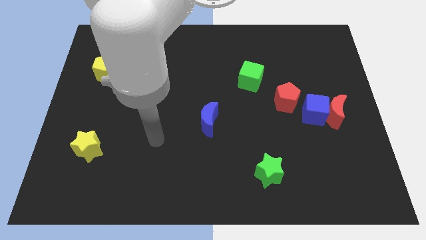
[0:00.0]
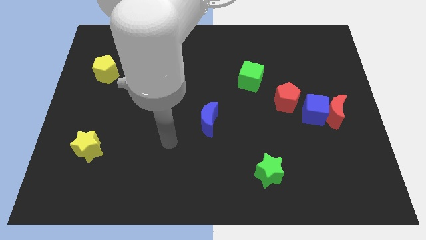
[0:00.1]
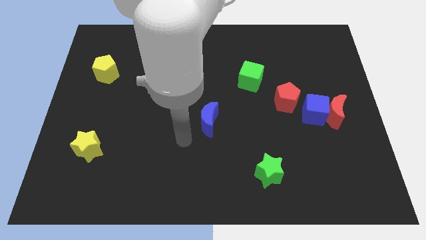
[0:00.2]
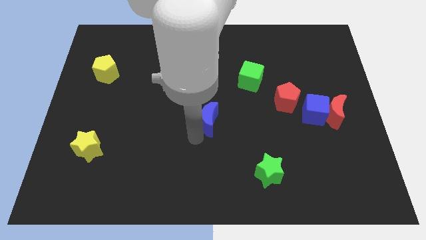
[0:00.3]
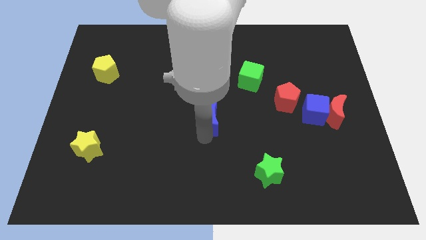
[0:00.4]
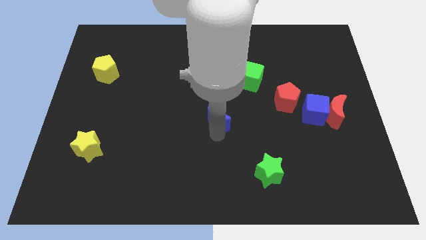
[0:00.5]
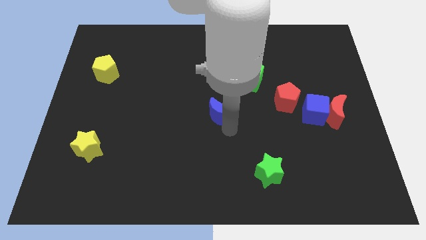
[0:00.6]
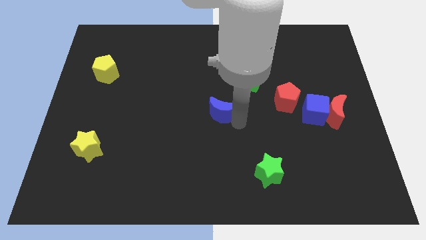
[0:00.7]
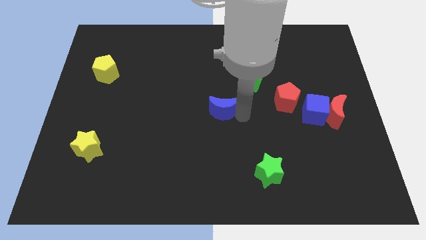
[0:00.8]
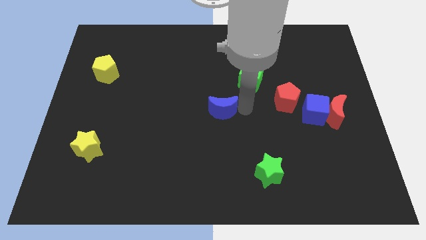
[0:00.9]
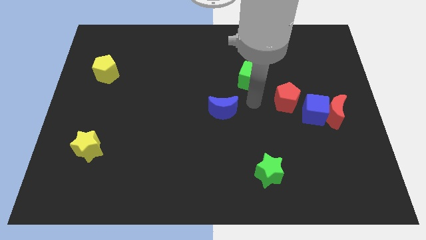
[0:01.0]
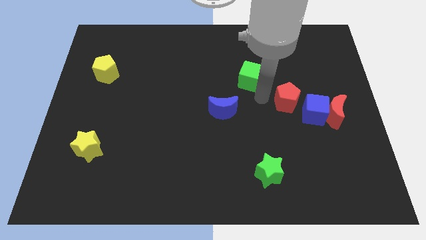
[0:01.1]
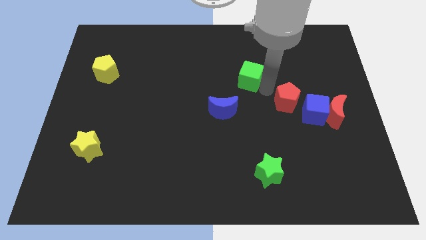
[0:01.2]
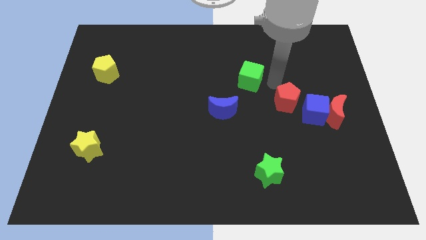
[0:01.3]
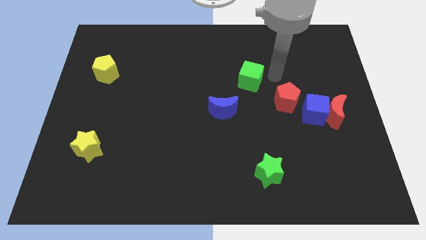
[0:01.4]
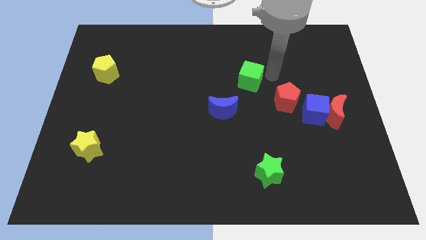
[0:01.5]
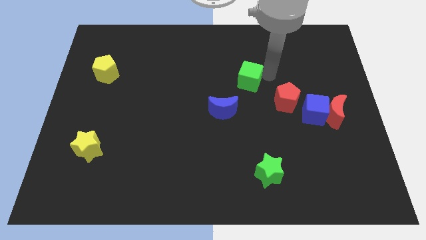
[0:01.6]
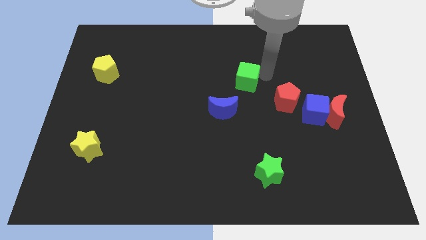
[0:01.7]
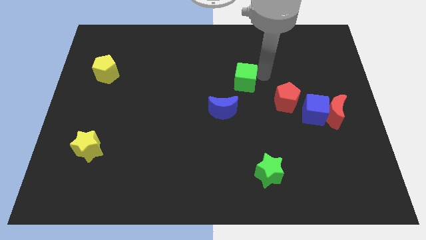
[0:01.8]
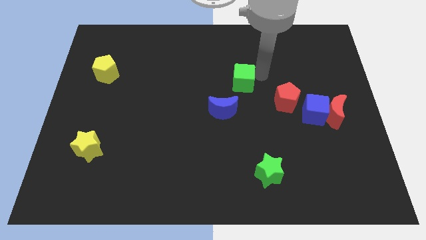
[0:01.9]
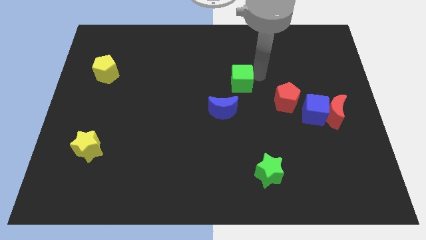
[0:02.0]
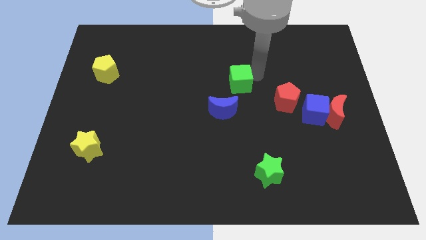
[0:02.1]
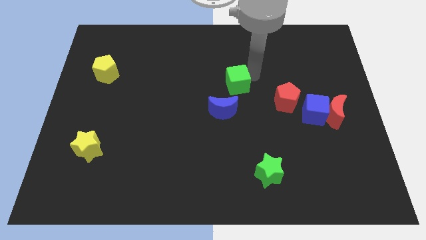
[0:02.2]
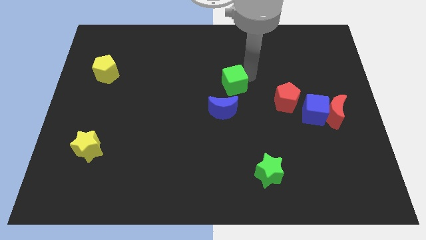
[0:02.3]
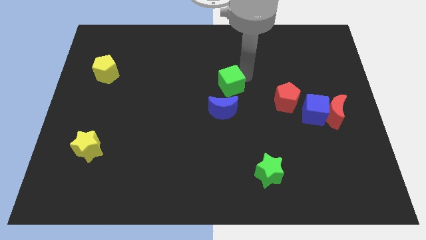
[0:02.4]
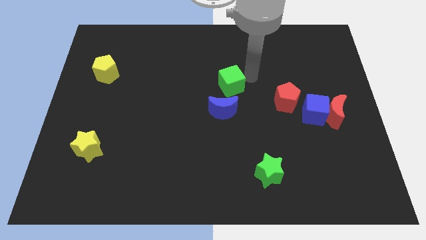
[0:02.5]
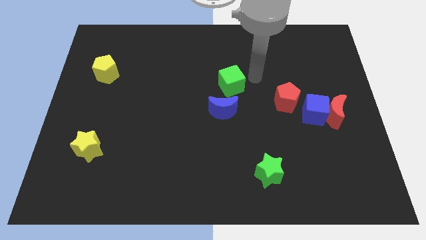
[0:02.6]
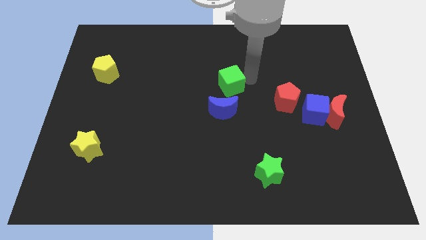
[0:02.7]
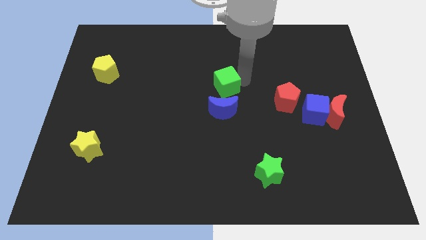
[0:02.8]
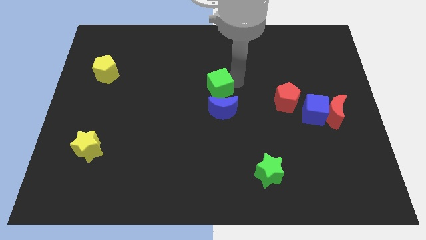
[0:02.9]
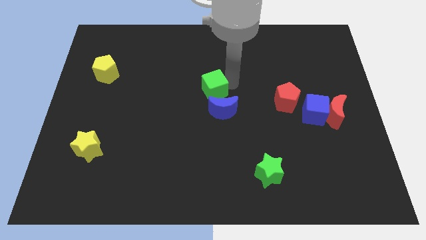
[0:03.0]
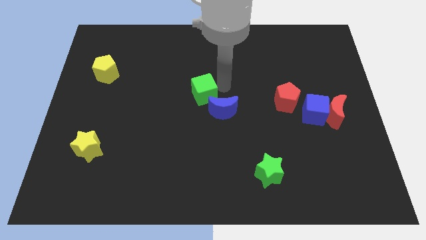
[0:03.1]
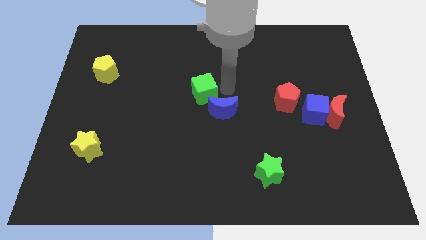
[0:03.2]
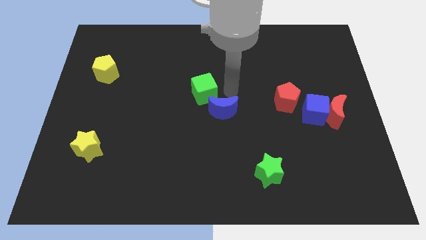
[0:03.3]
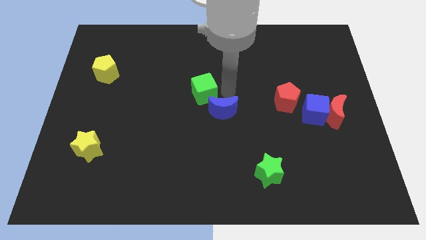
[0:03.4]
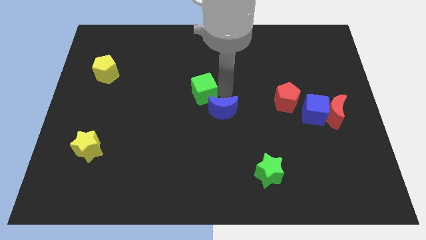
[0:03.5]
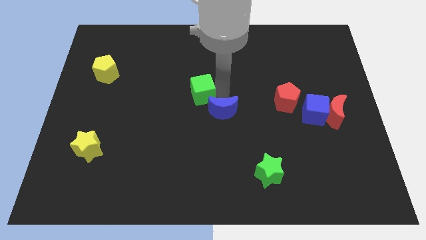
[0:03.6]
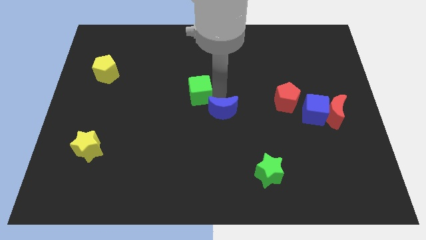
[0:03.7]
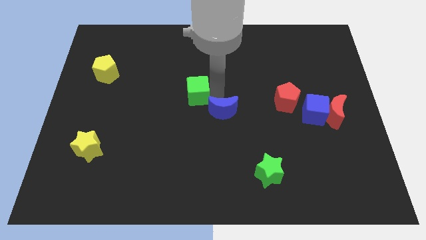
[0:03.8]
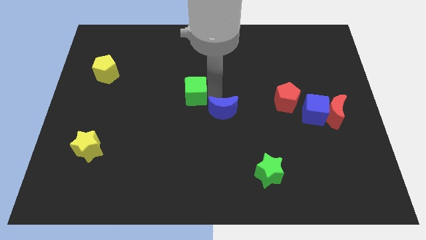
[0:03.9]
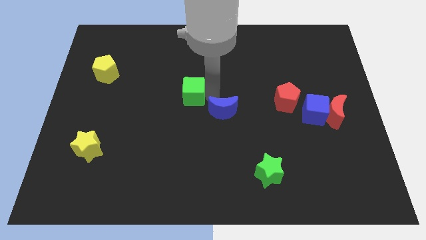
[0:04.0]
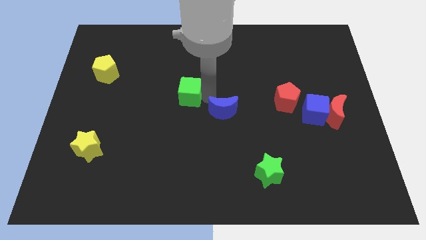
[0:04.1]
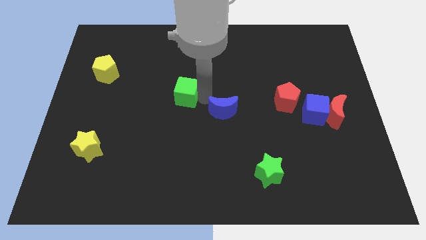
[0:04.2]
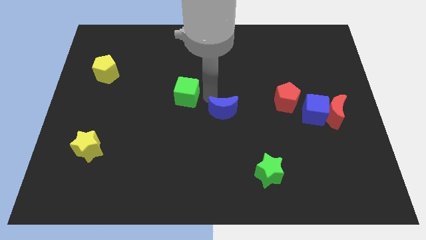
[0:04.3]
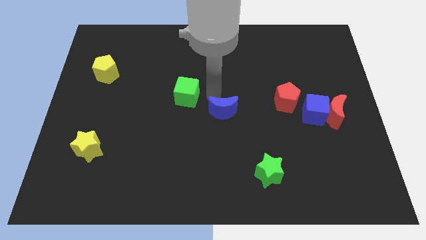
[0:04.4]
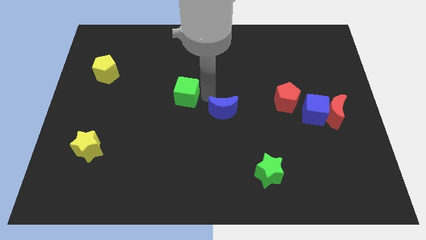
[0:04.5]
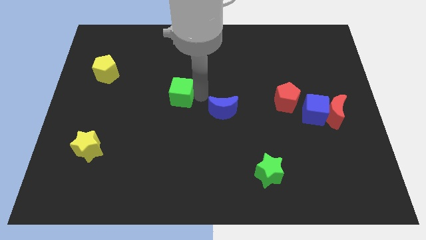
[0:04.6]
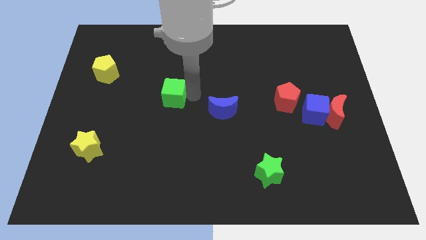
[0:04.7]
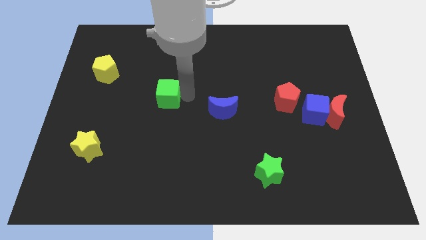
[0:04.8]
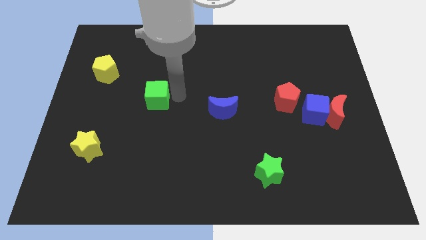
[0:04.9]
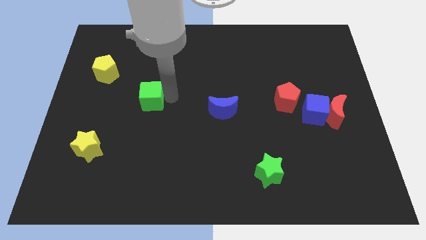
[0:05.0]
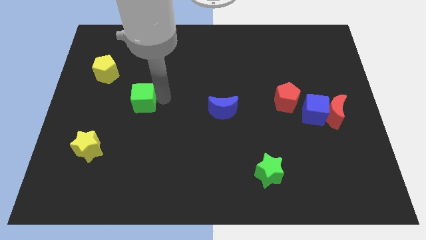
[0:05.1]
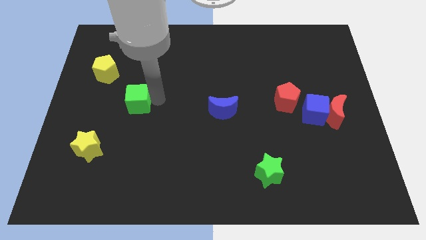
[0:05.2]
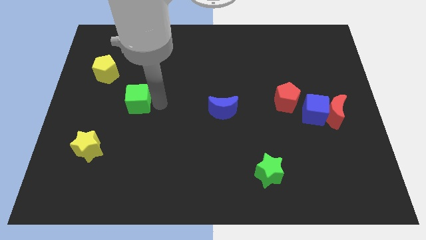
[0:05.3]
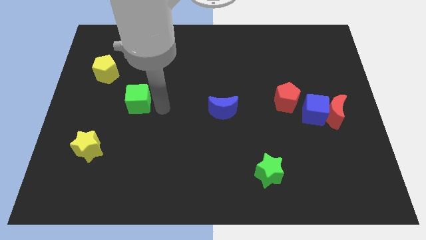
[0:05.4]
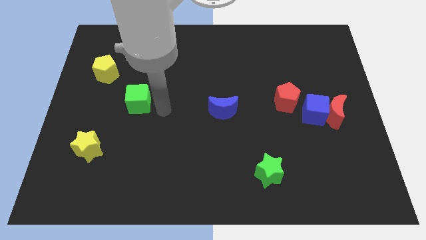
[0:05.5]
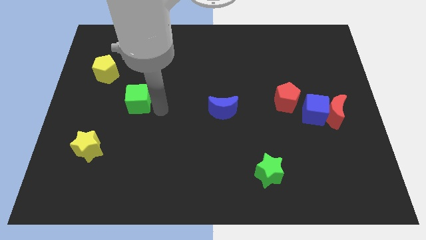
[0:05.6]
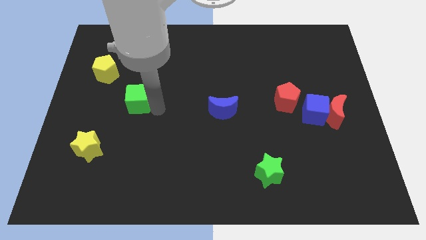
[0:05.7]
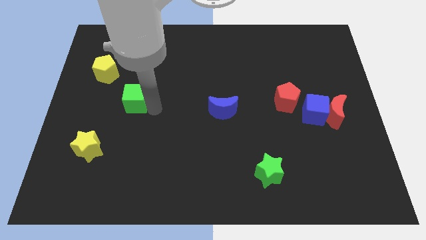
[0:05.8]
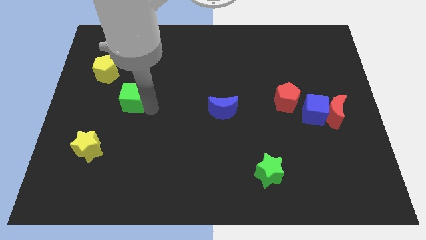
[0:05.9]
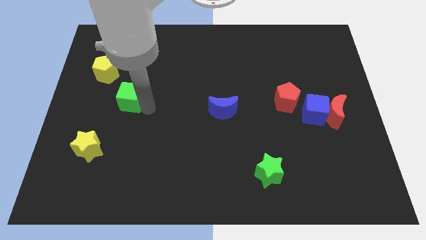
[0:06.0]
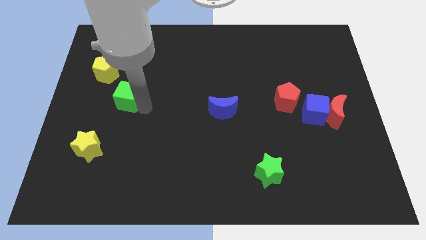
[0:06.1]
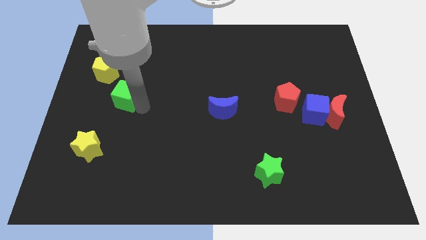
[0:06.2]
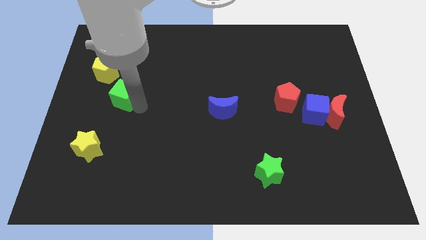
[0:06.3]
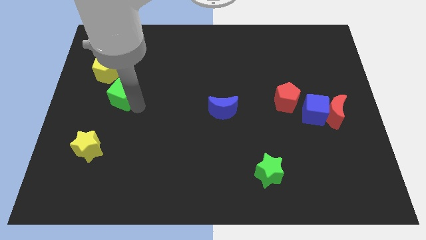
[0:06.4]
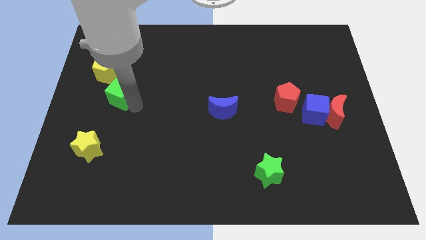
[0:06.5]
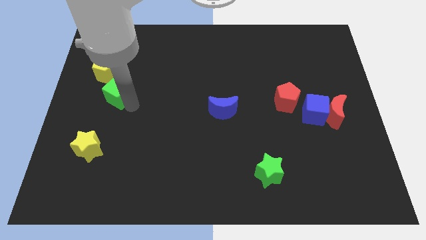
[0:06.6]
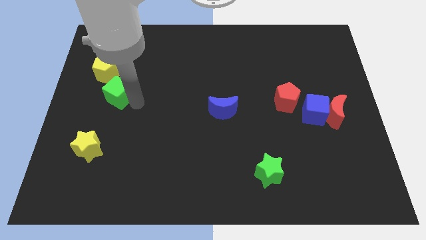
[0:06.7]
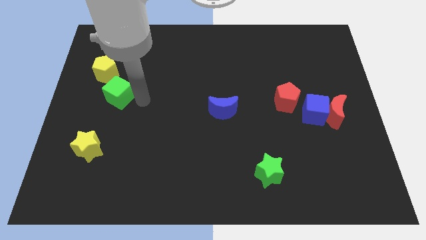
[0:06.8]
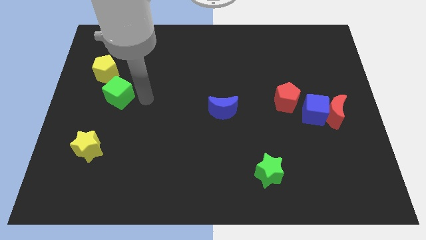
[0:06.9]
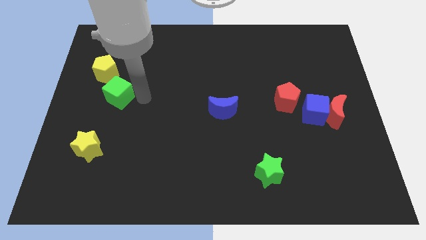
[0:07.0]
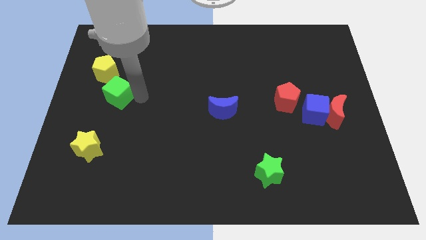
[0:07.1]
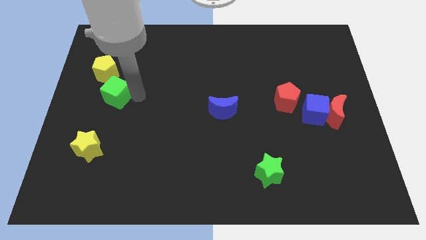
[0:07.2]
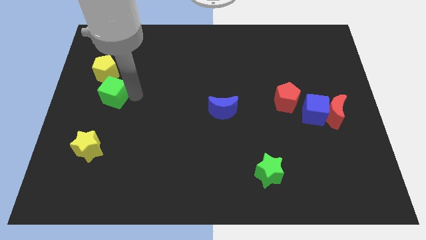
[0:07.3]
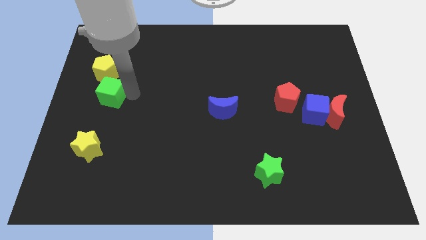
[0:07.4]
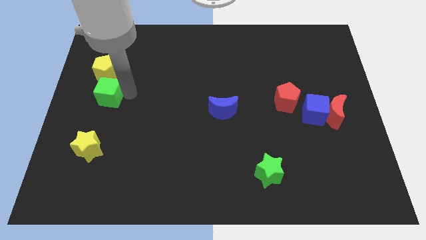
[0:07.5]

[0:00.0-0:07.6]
move the green cube to the center left
